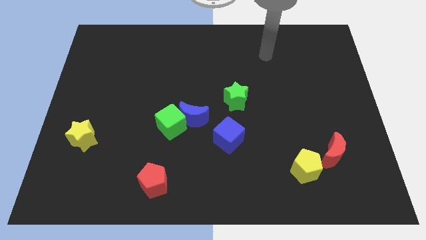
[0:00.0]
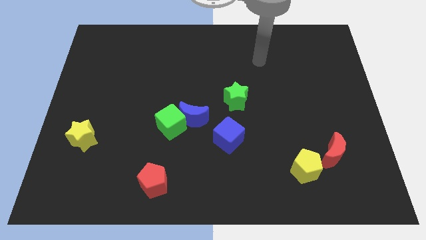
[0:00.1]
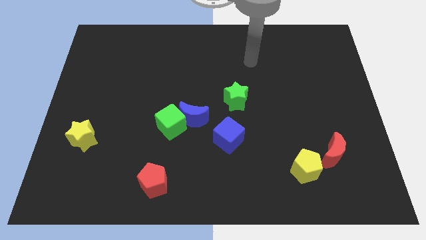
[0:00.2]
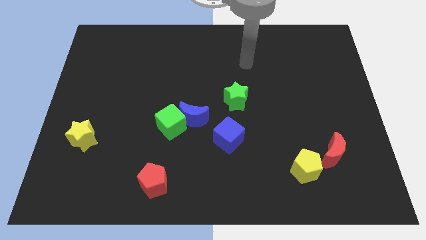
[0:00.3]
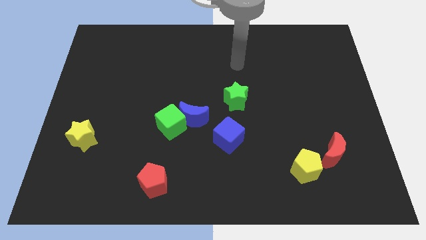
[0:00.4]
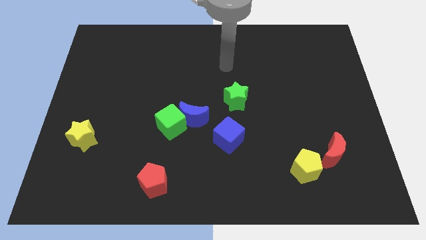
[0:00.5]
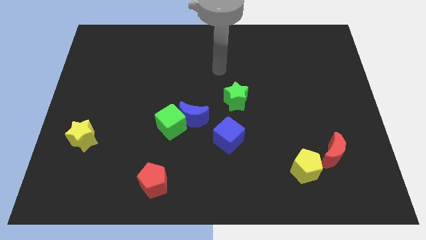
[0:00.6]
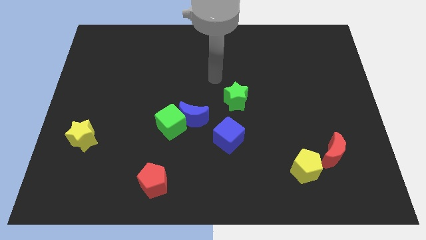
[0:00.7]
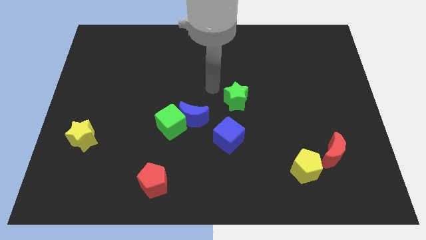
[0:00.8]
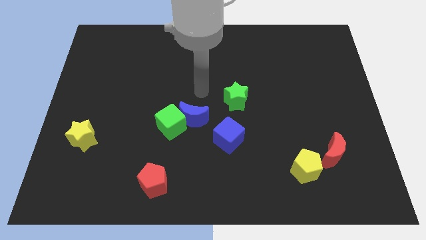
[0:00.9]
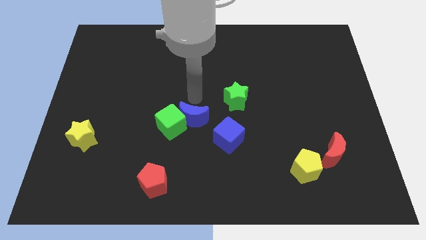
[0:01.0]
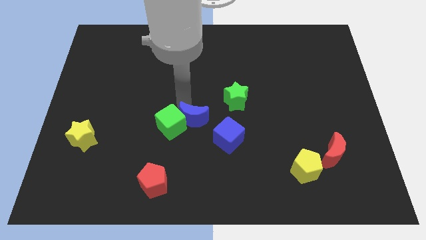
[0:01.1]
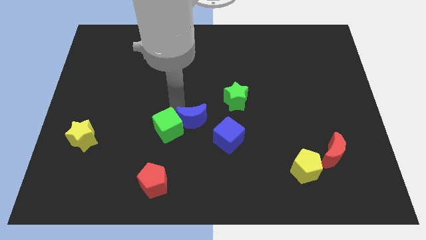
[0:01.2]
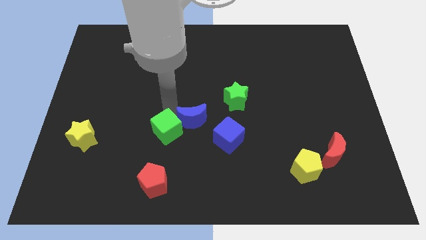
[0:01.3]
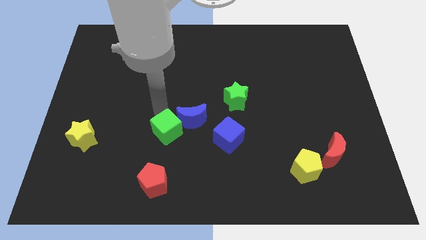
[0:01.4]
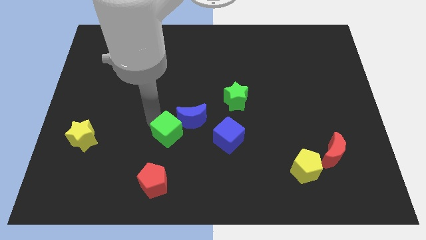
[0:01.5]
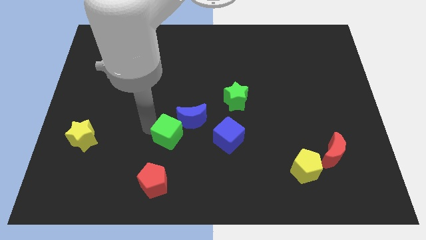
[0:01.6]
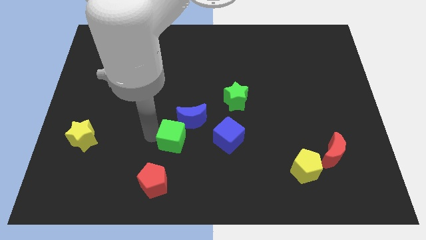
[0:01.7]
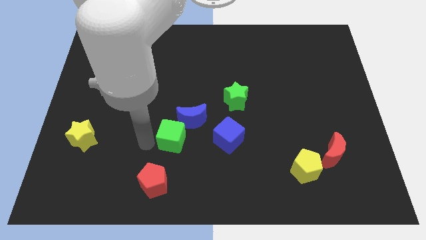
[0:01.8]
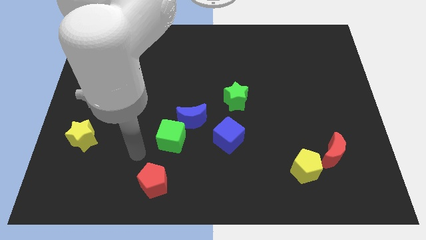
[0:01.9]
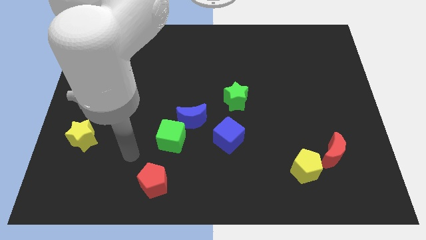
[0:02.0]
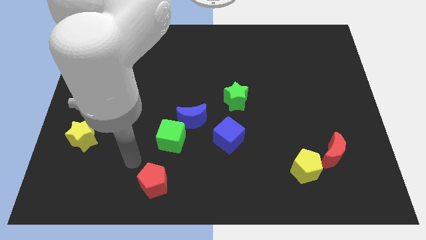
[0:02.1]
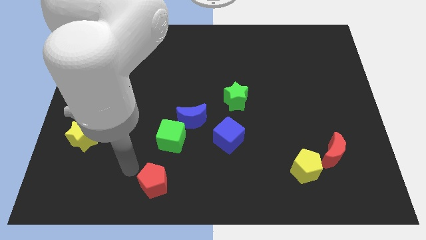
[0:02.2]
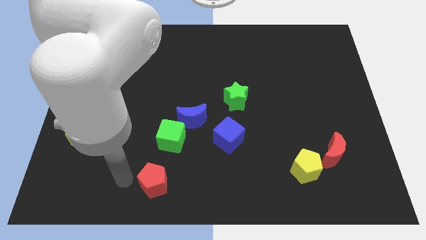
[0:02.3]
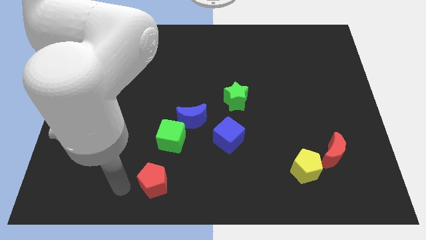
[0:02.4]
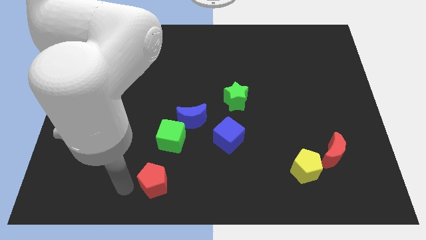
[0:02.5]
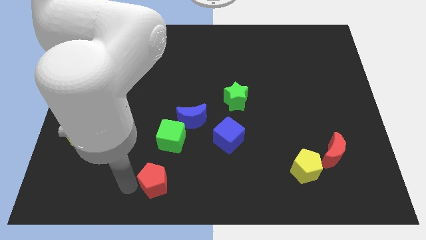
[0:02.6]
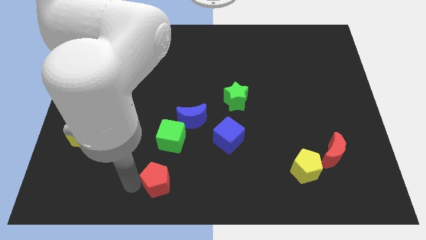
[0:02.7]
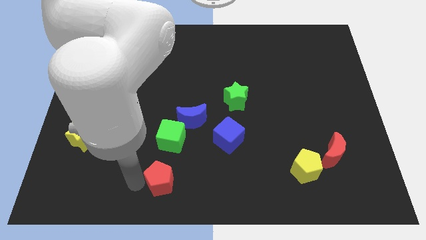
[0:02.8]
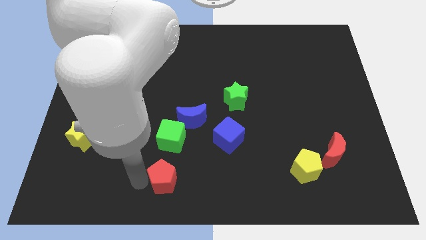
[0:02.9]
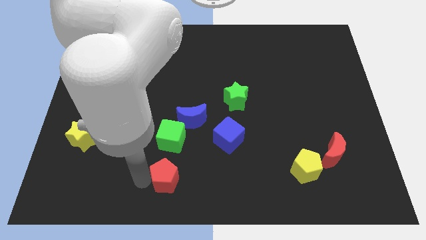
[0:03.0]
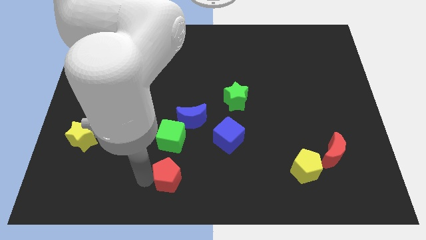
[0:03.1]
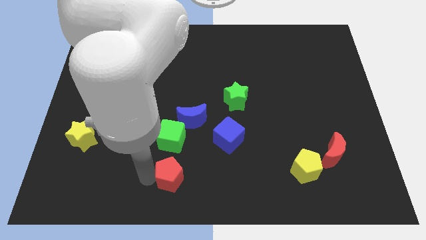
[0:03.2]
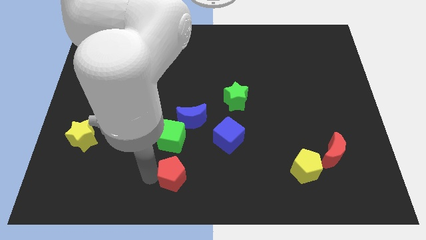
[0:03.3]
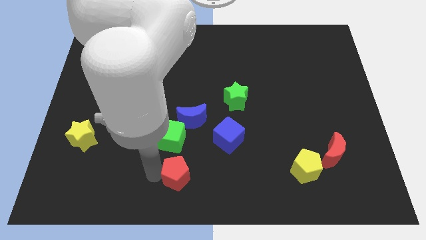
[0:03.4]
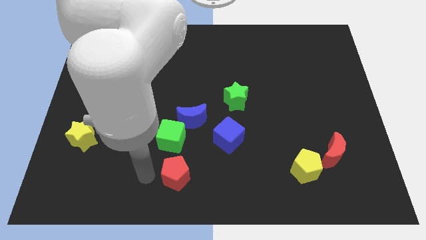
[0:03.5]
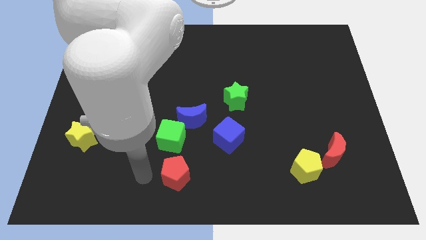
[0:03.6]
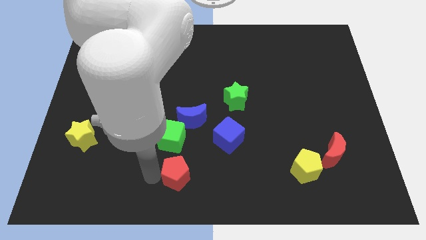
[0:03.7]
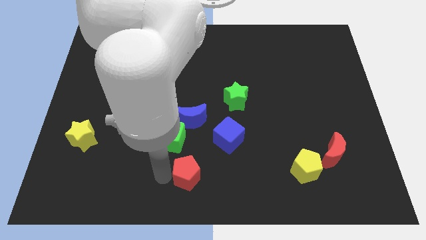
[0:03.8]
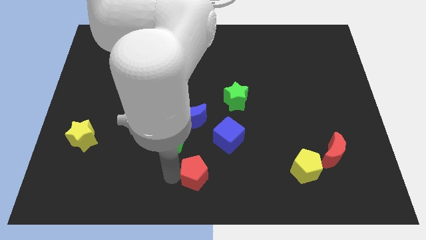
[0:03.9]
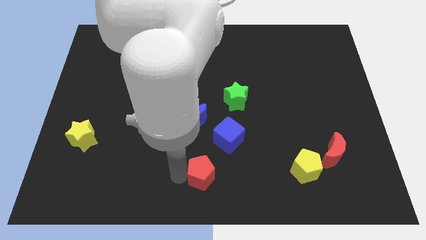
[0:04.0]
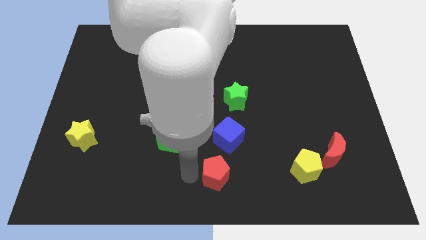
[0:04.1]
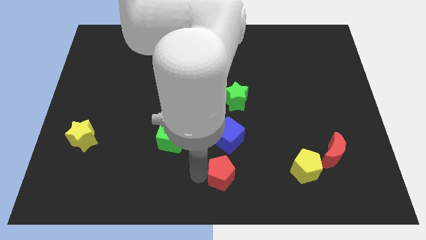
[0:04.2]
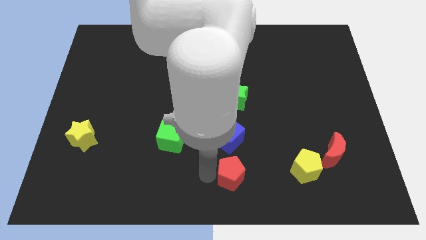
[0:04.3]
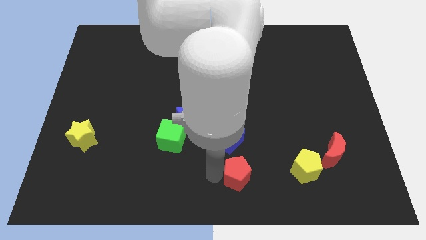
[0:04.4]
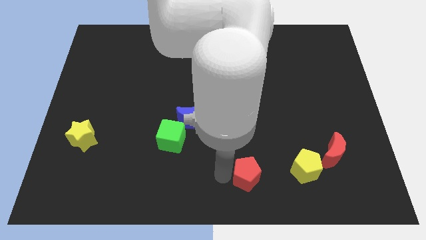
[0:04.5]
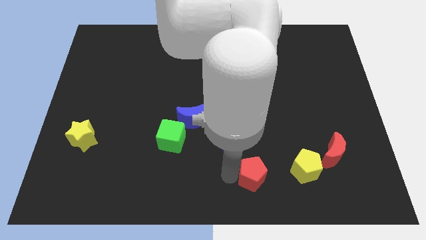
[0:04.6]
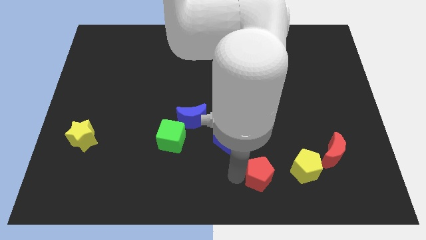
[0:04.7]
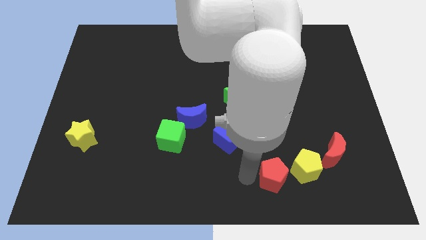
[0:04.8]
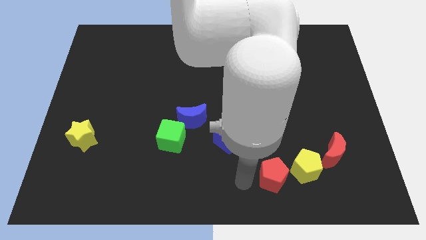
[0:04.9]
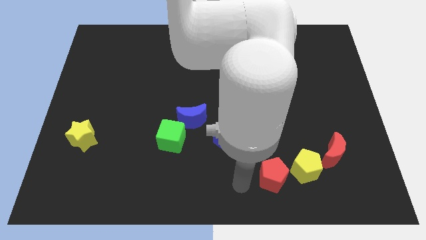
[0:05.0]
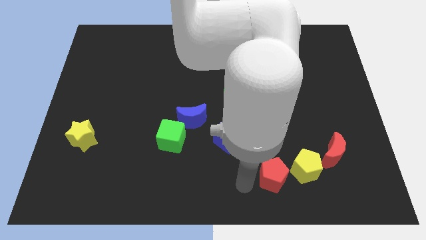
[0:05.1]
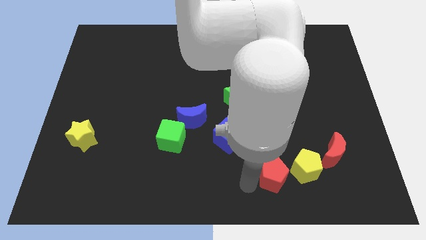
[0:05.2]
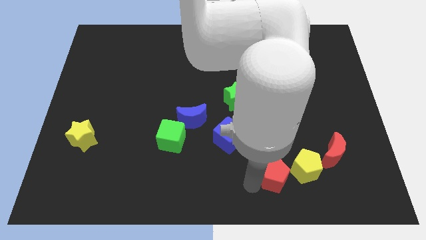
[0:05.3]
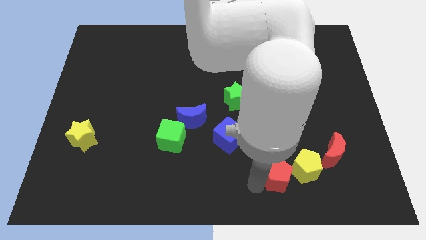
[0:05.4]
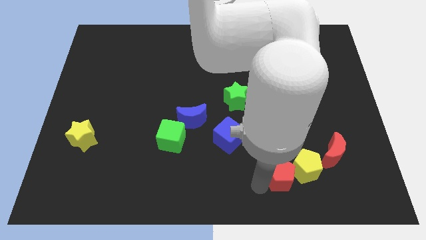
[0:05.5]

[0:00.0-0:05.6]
push the red pentagon towards the yellow pentagon

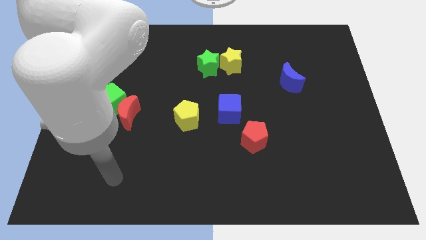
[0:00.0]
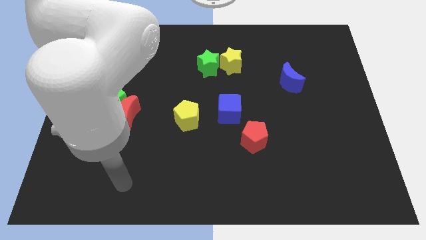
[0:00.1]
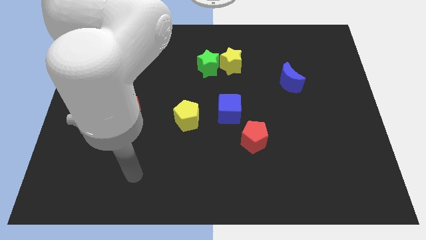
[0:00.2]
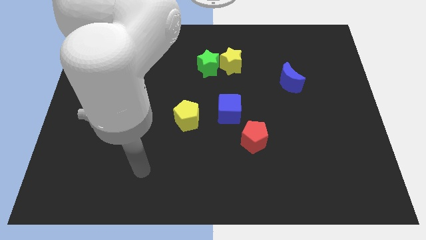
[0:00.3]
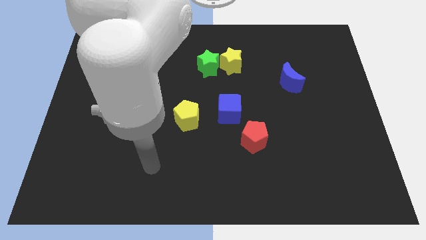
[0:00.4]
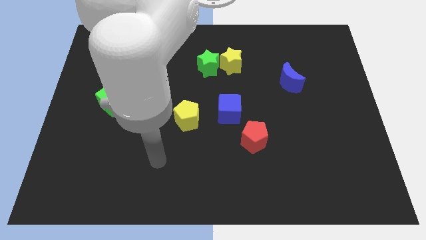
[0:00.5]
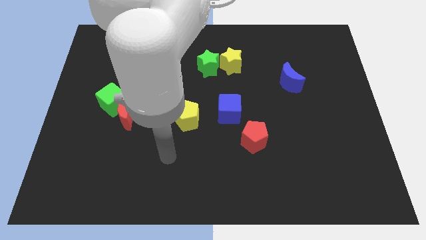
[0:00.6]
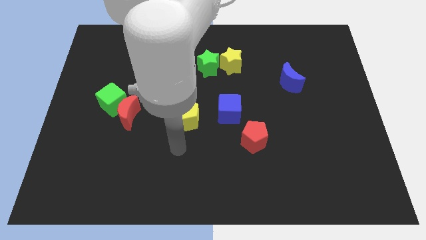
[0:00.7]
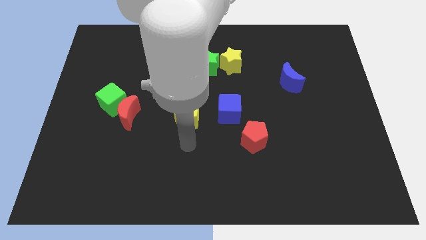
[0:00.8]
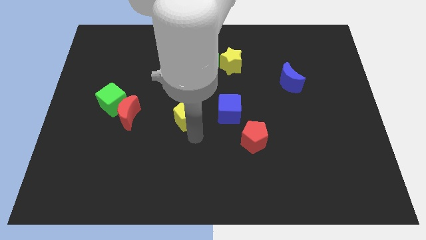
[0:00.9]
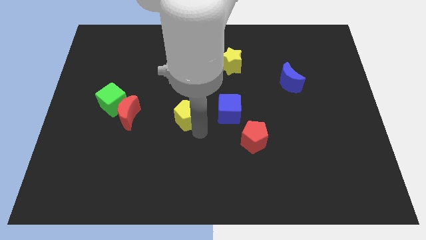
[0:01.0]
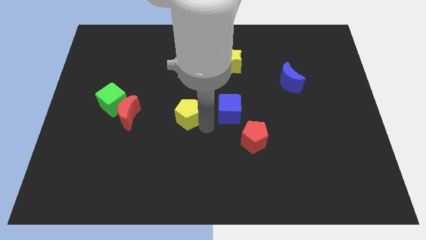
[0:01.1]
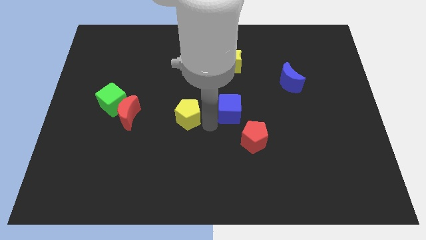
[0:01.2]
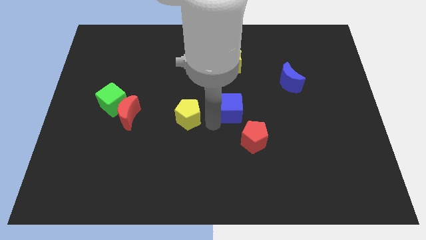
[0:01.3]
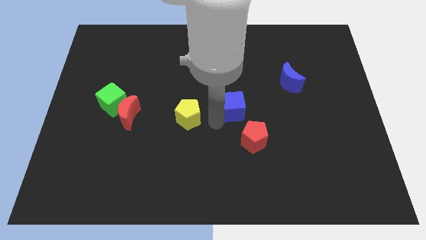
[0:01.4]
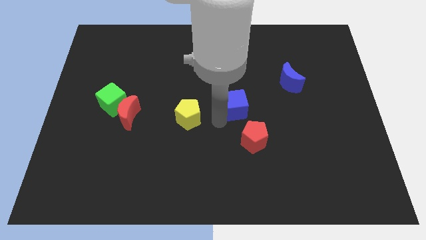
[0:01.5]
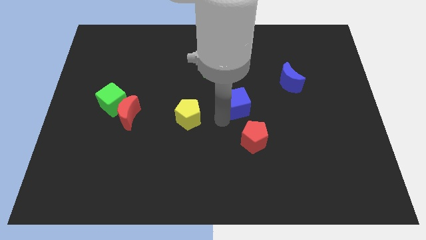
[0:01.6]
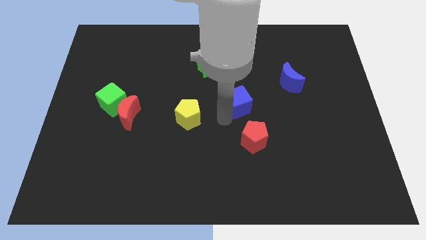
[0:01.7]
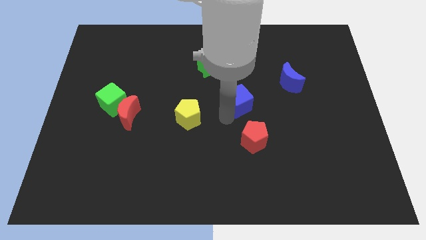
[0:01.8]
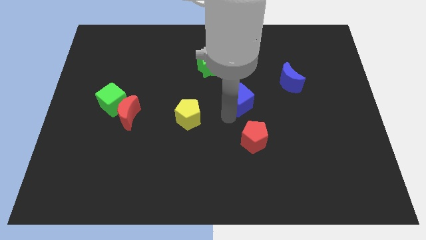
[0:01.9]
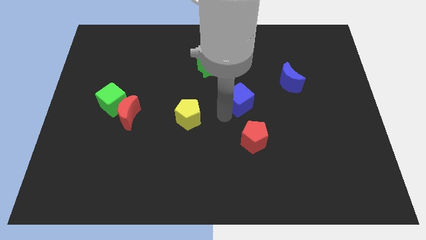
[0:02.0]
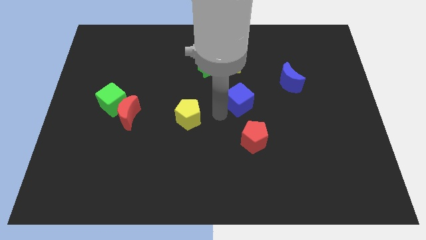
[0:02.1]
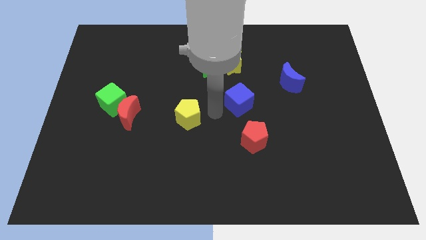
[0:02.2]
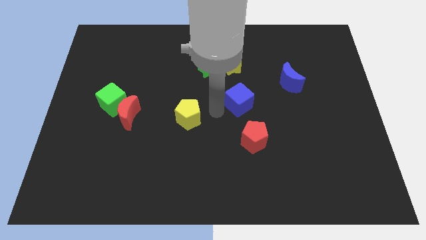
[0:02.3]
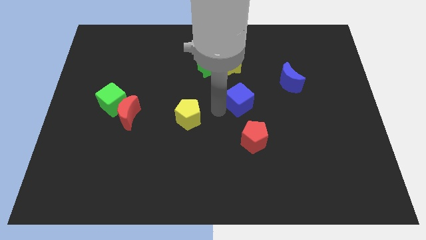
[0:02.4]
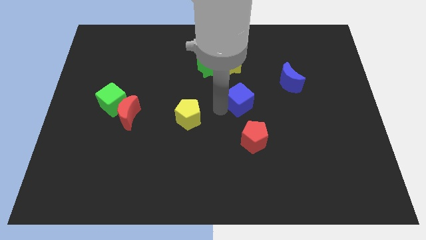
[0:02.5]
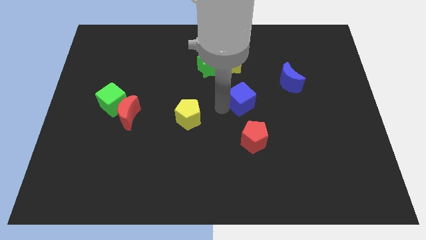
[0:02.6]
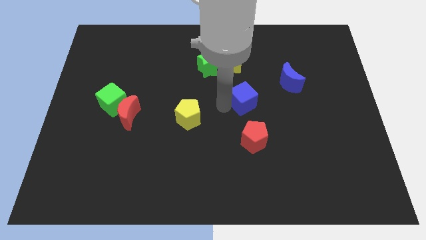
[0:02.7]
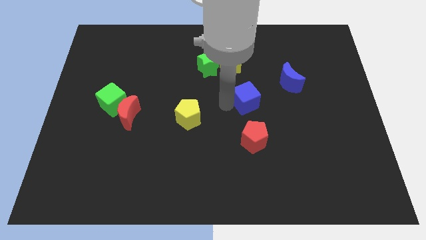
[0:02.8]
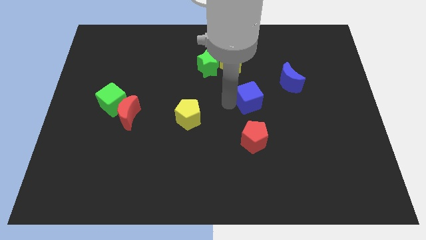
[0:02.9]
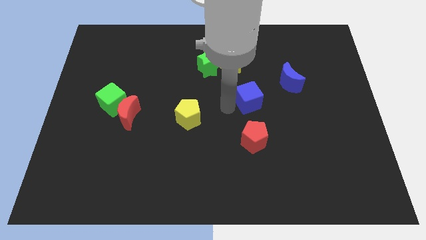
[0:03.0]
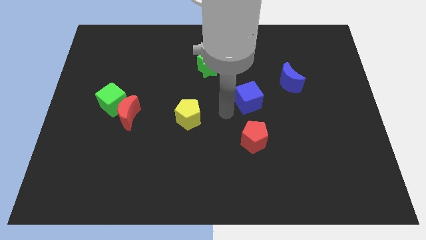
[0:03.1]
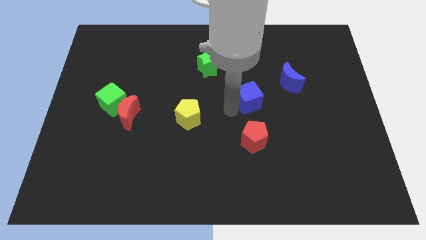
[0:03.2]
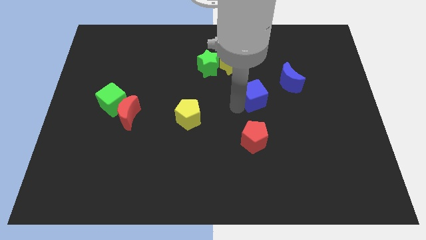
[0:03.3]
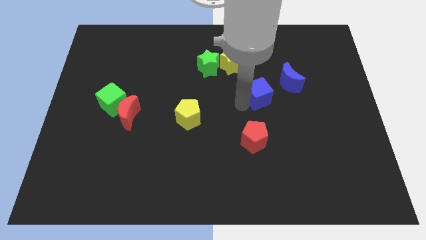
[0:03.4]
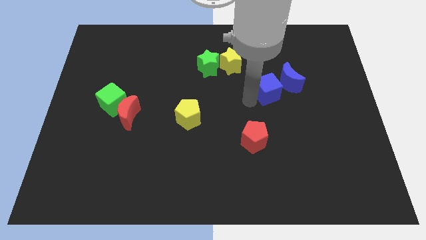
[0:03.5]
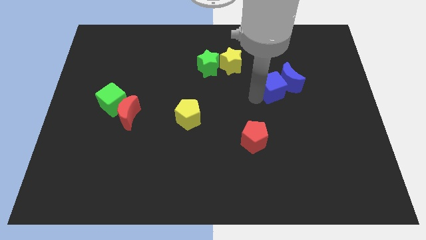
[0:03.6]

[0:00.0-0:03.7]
slide the blue cube next to the blue moon
